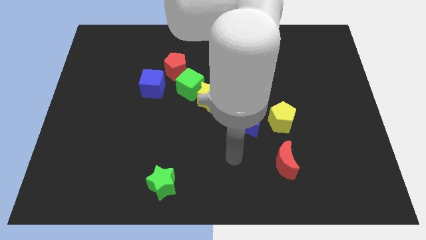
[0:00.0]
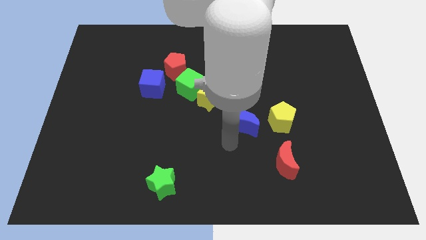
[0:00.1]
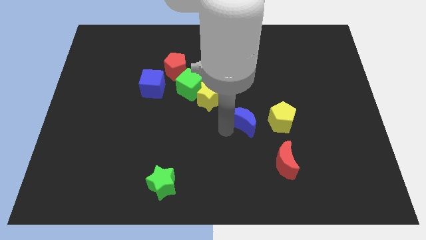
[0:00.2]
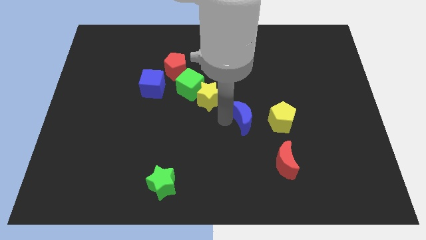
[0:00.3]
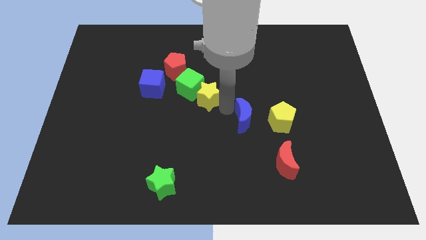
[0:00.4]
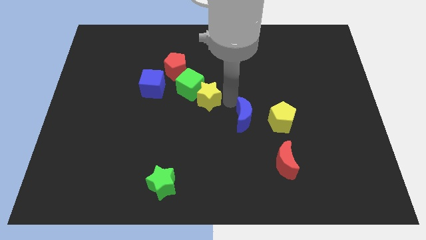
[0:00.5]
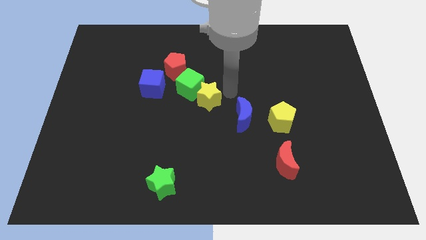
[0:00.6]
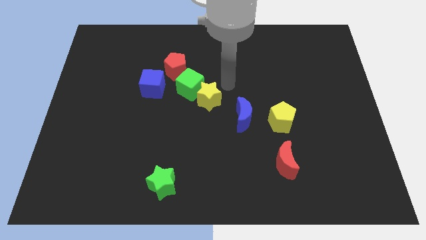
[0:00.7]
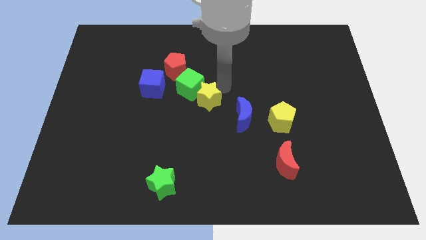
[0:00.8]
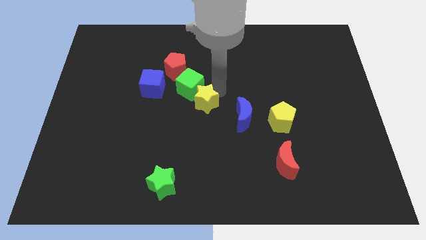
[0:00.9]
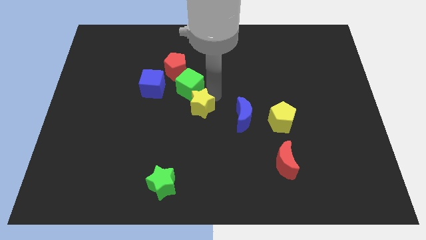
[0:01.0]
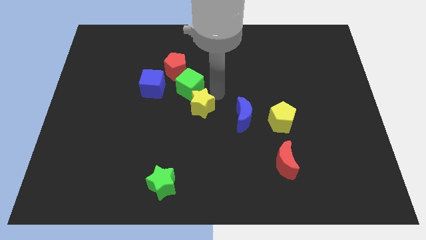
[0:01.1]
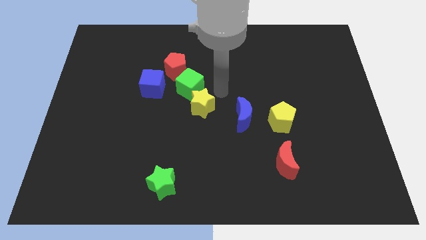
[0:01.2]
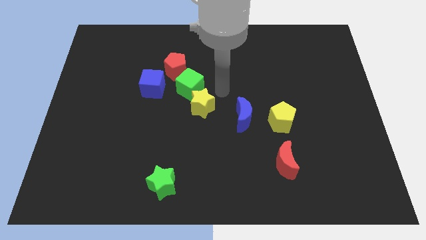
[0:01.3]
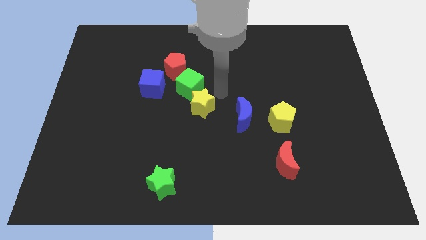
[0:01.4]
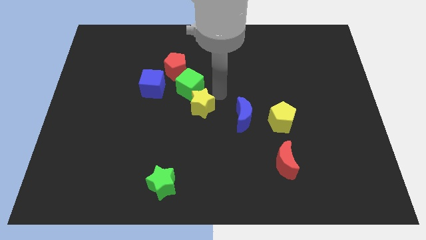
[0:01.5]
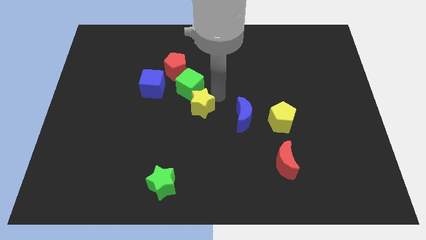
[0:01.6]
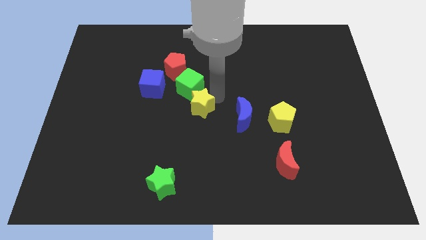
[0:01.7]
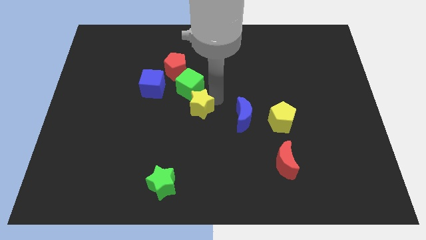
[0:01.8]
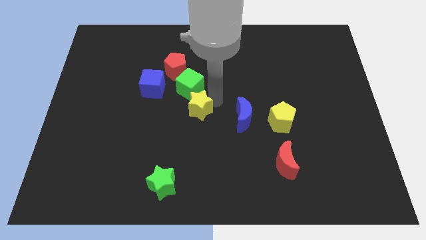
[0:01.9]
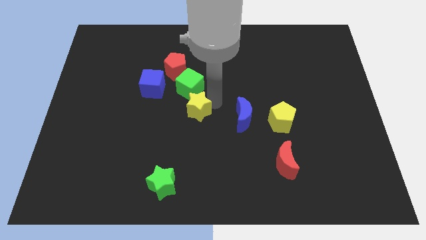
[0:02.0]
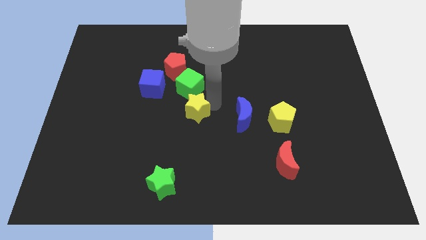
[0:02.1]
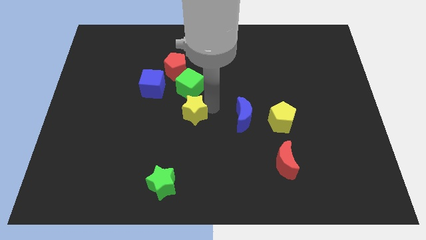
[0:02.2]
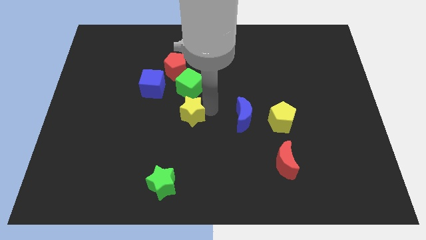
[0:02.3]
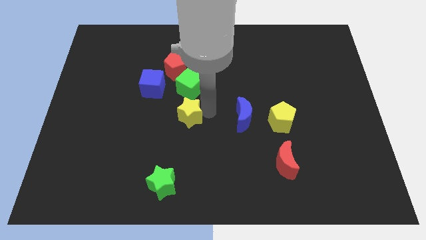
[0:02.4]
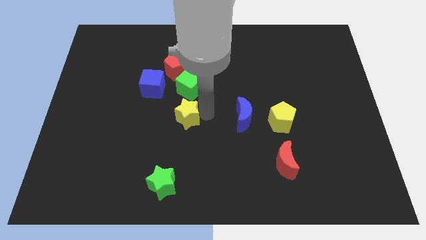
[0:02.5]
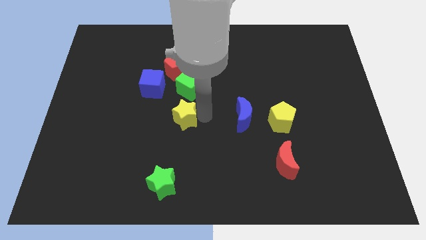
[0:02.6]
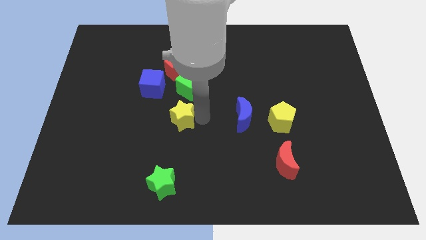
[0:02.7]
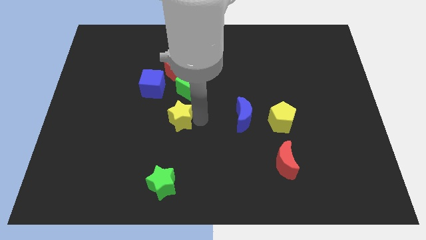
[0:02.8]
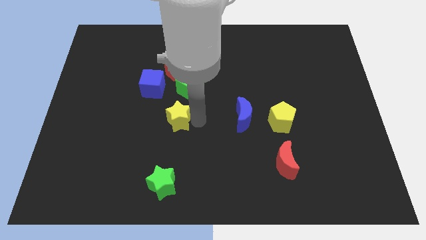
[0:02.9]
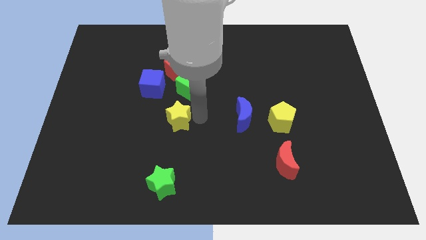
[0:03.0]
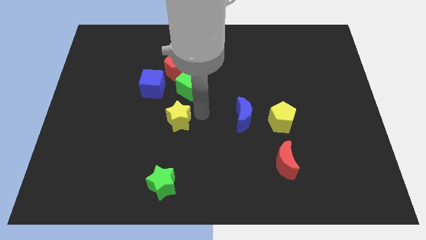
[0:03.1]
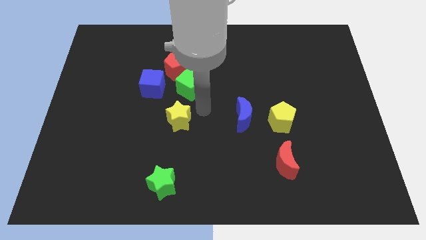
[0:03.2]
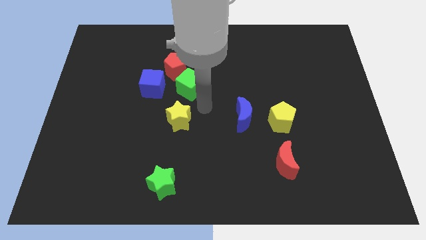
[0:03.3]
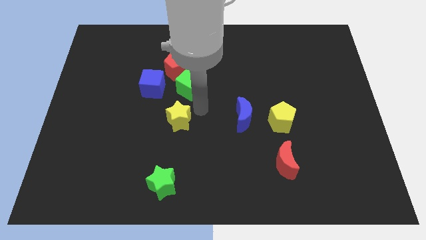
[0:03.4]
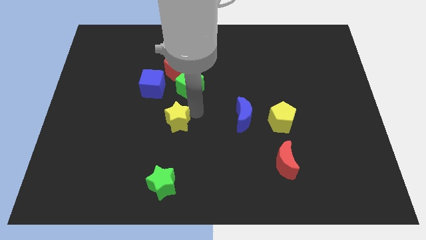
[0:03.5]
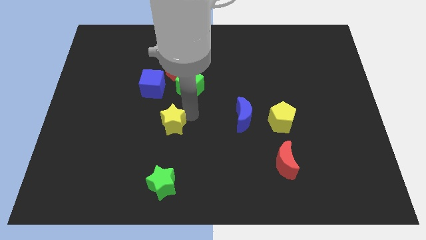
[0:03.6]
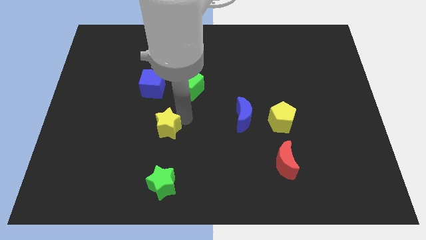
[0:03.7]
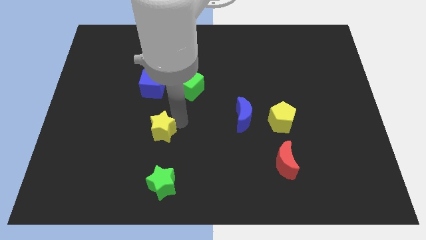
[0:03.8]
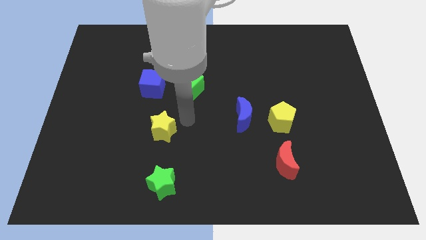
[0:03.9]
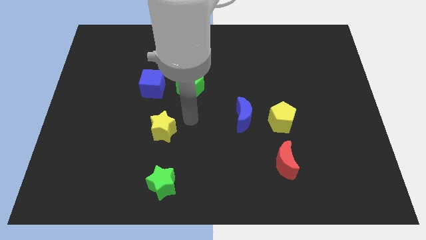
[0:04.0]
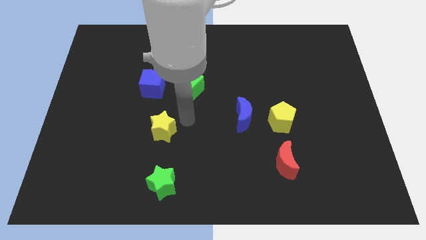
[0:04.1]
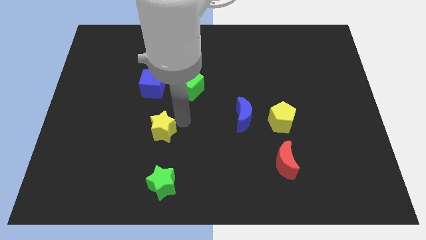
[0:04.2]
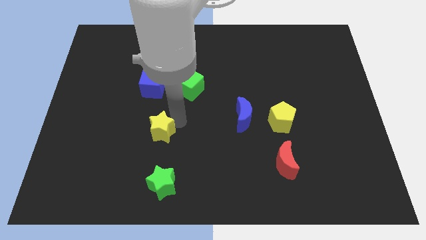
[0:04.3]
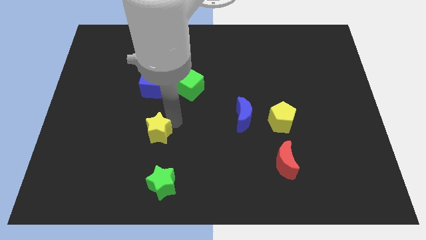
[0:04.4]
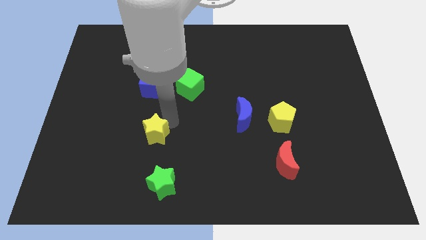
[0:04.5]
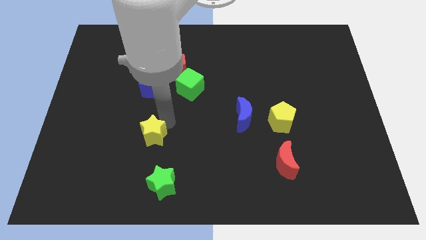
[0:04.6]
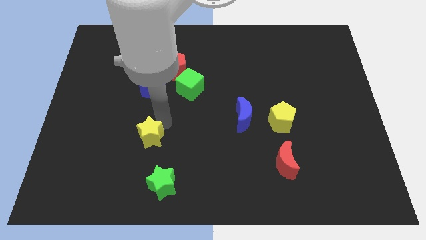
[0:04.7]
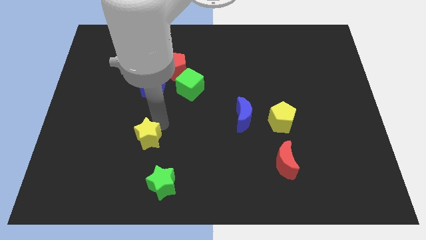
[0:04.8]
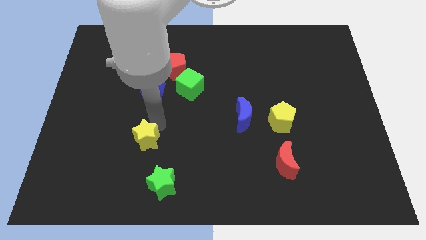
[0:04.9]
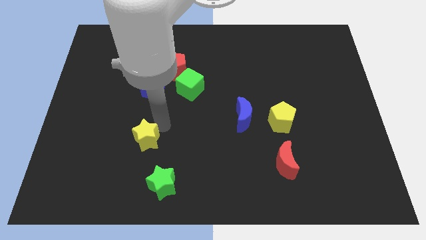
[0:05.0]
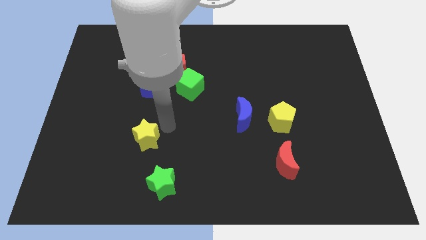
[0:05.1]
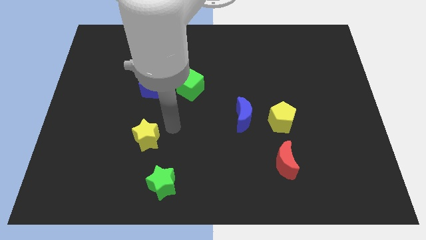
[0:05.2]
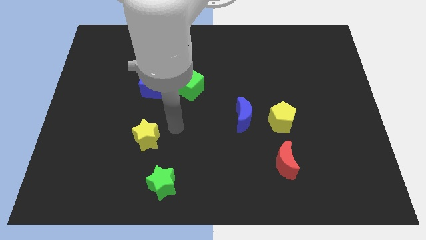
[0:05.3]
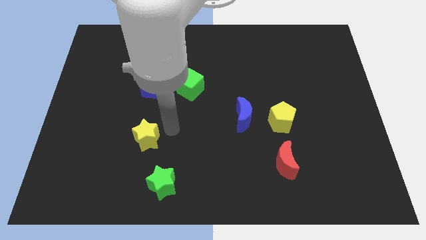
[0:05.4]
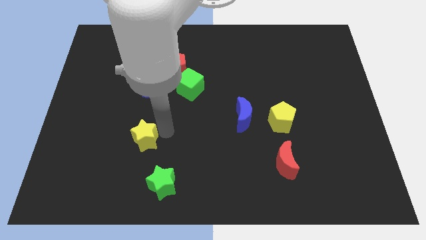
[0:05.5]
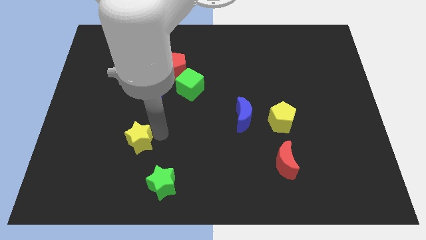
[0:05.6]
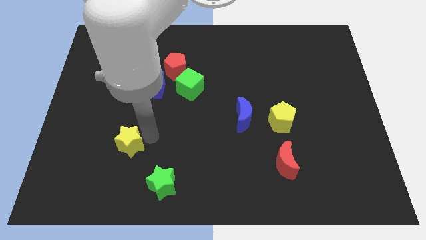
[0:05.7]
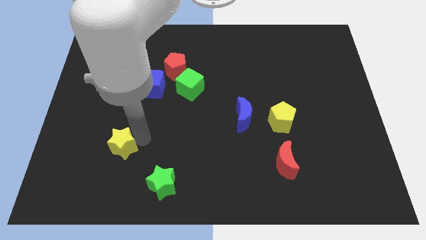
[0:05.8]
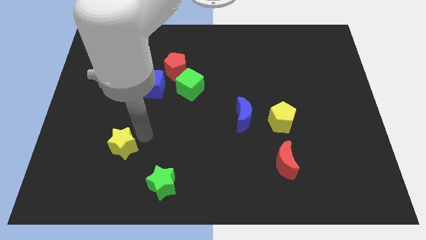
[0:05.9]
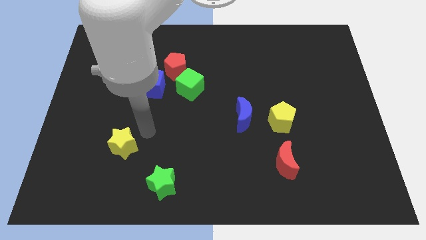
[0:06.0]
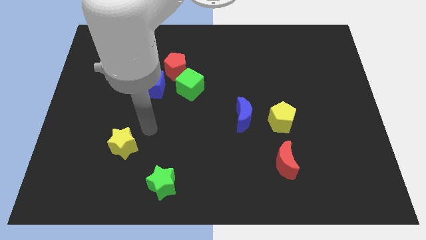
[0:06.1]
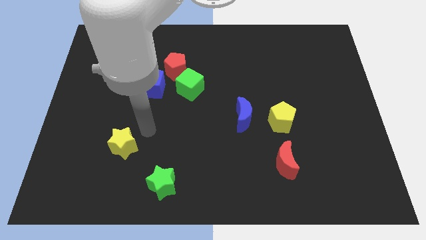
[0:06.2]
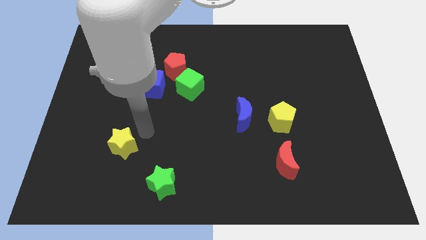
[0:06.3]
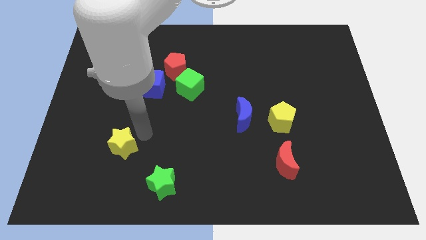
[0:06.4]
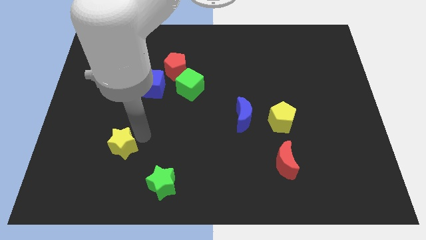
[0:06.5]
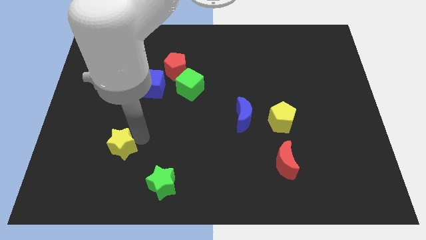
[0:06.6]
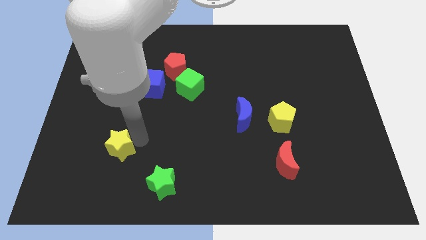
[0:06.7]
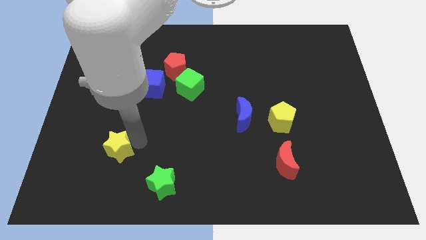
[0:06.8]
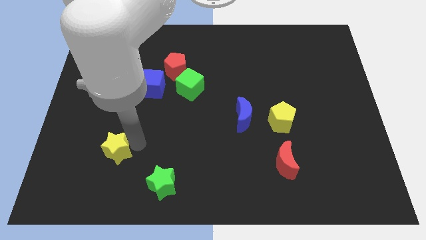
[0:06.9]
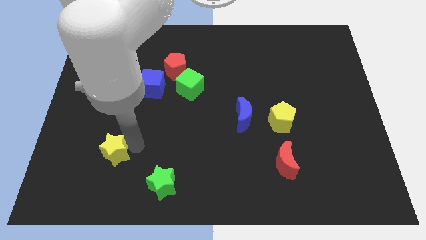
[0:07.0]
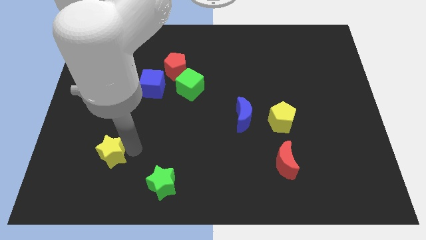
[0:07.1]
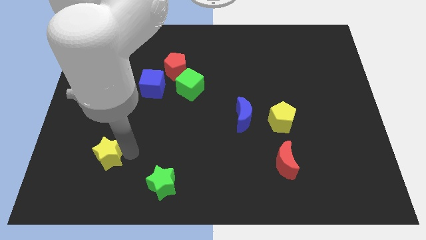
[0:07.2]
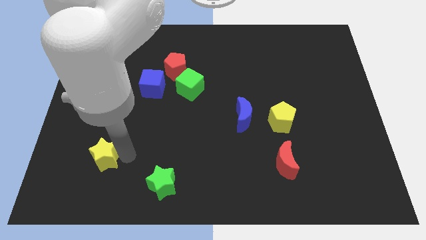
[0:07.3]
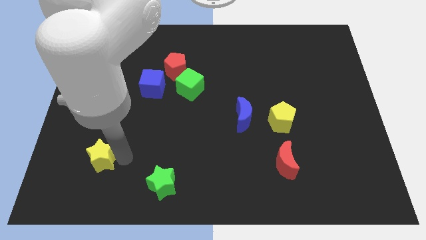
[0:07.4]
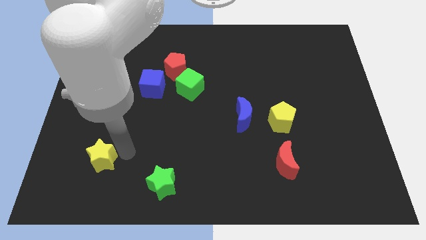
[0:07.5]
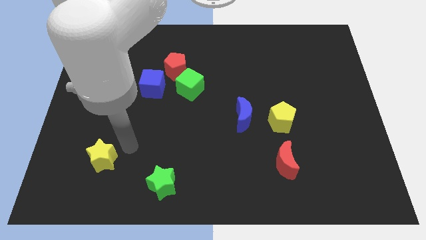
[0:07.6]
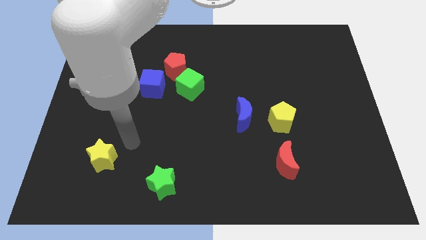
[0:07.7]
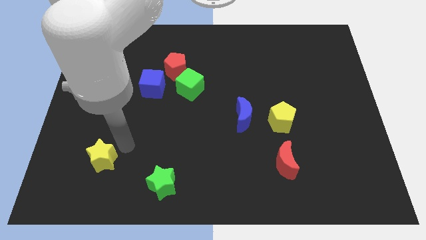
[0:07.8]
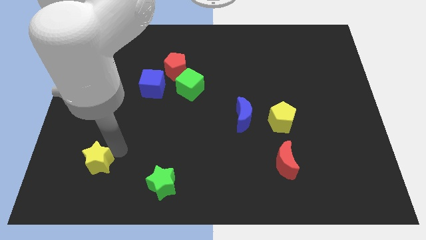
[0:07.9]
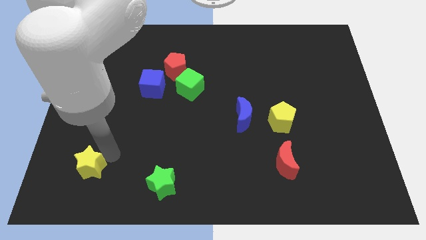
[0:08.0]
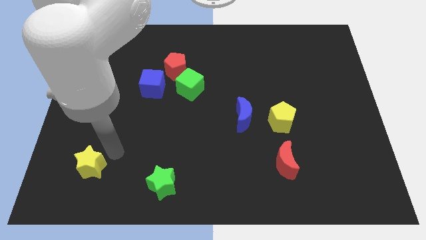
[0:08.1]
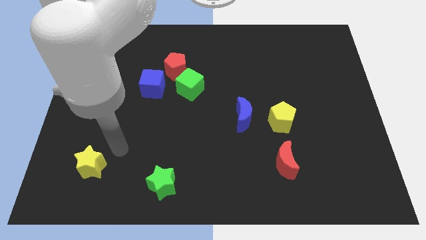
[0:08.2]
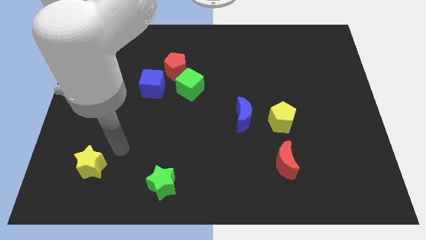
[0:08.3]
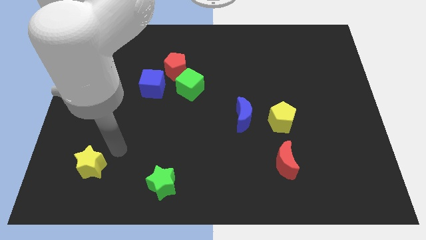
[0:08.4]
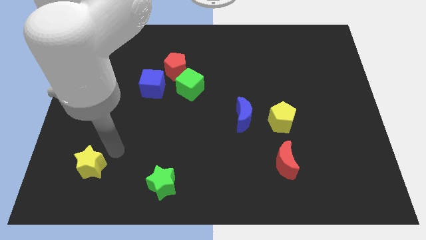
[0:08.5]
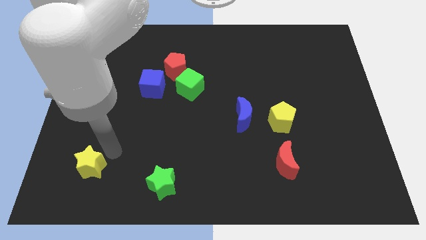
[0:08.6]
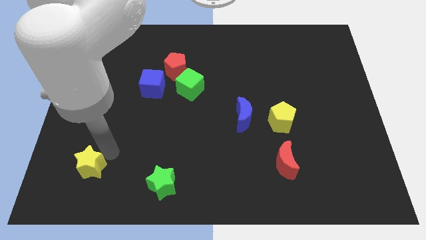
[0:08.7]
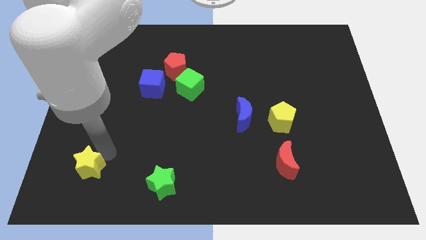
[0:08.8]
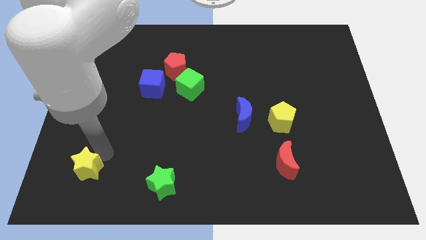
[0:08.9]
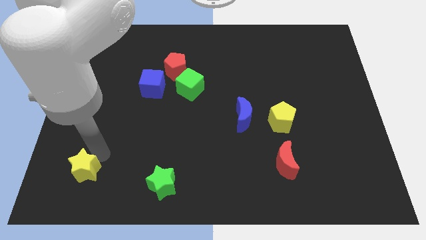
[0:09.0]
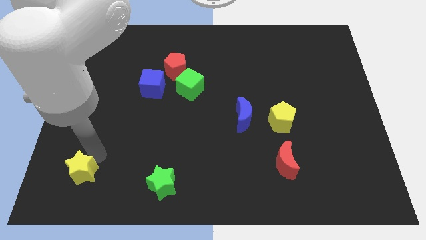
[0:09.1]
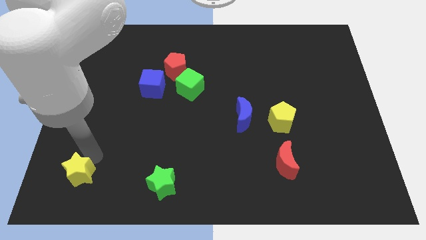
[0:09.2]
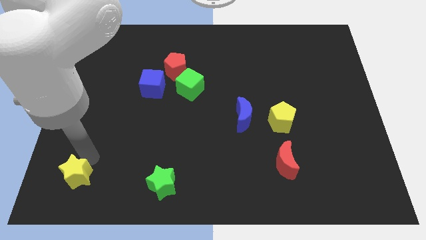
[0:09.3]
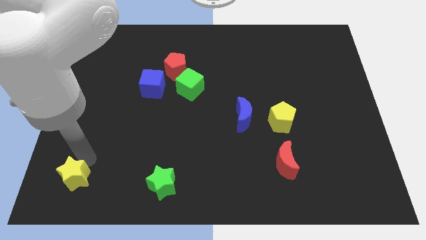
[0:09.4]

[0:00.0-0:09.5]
push the yellow star to the lower left corner
